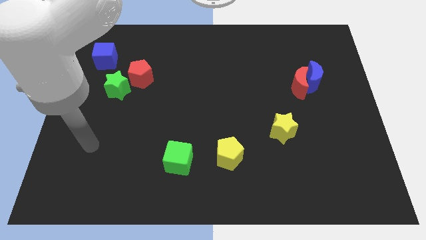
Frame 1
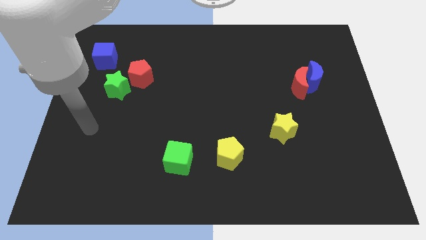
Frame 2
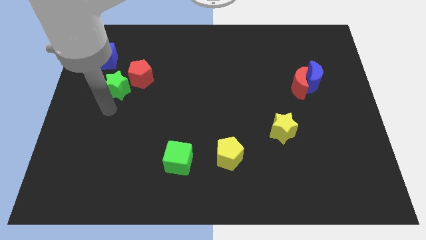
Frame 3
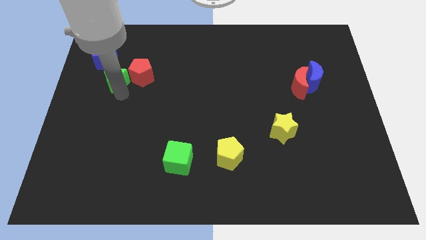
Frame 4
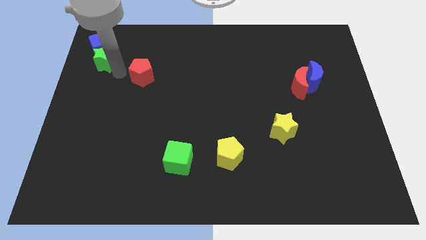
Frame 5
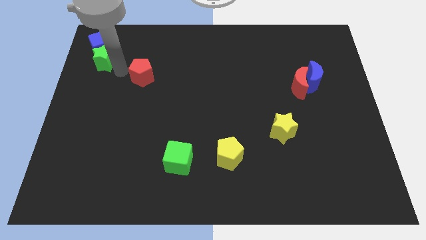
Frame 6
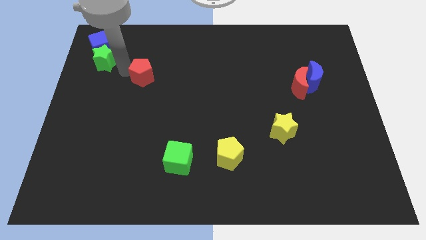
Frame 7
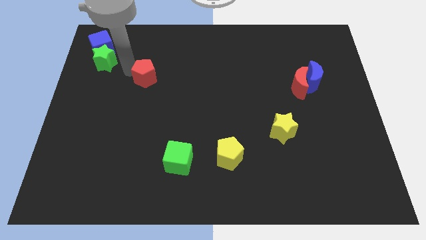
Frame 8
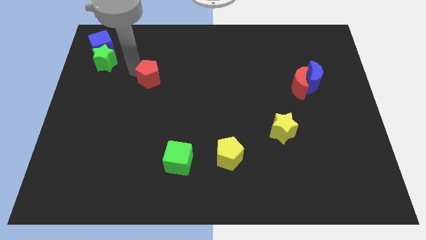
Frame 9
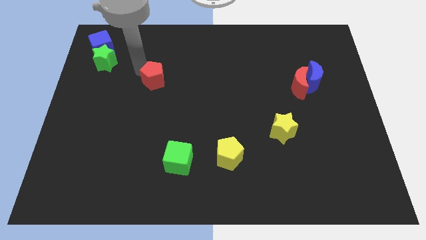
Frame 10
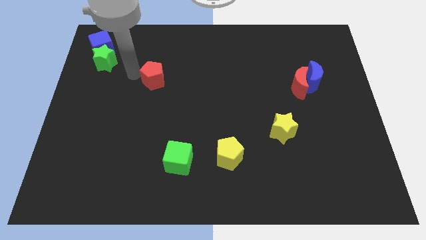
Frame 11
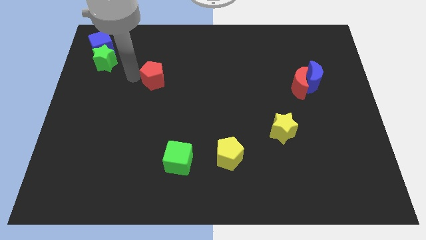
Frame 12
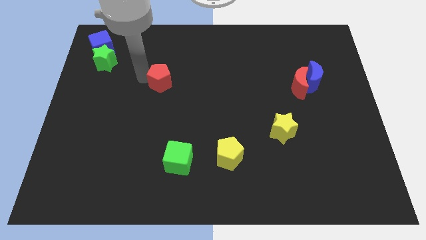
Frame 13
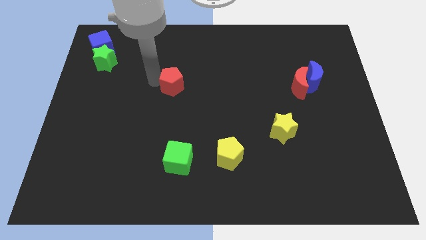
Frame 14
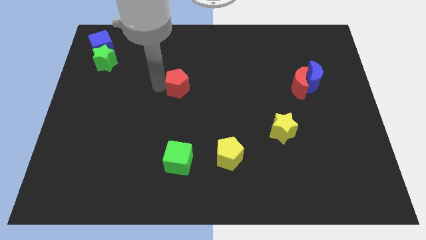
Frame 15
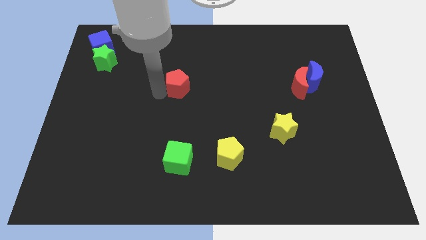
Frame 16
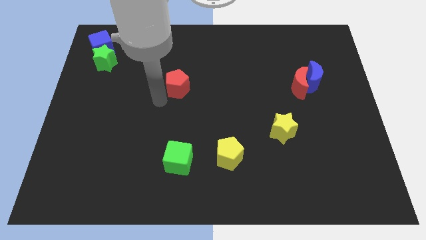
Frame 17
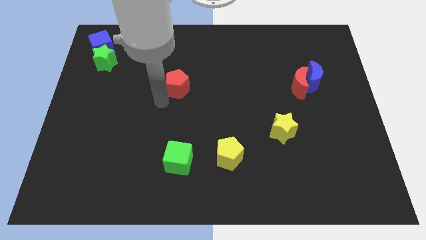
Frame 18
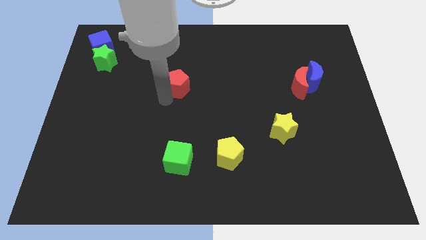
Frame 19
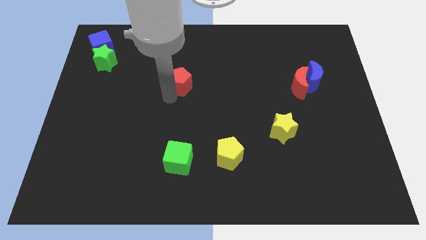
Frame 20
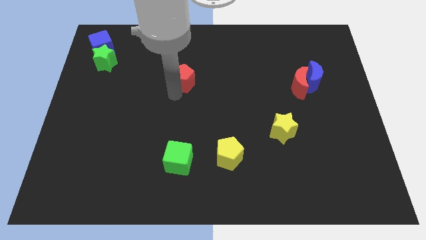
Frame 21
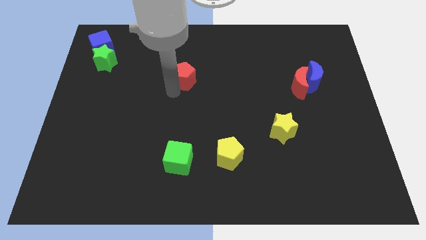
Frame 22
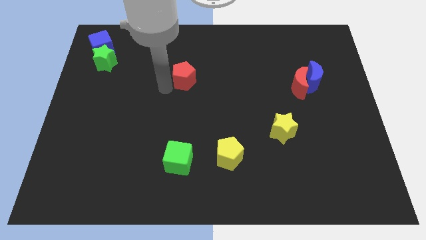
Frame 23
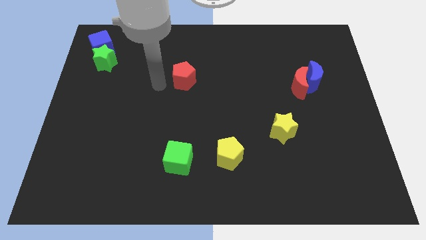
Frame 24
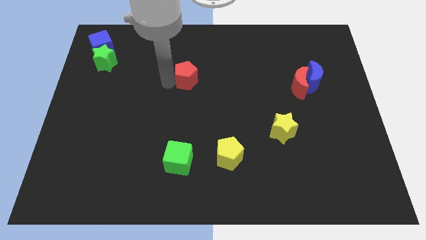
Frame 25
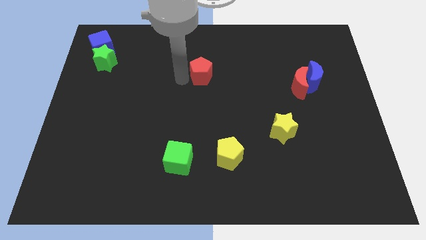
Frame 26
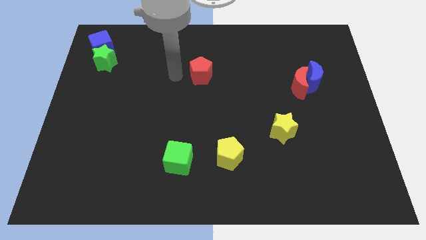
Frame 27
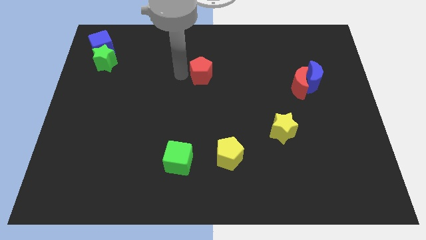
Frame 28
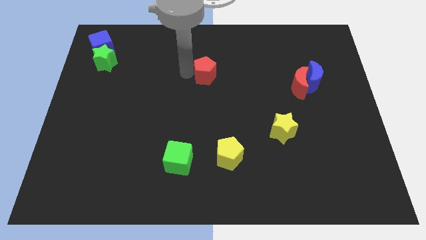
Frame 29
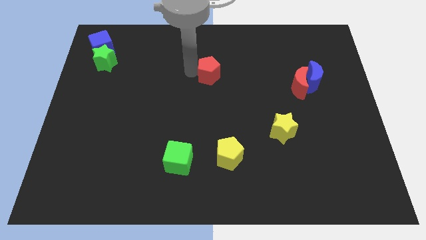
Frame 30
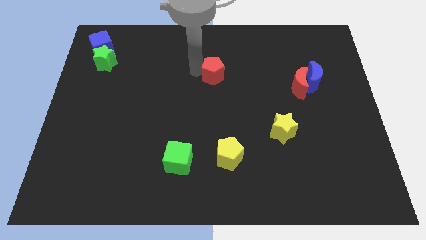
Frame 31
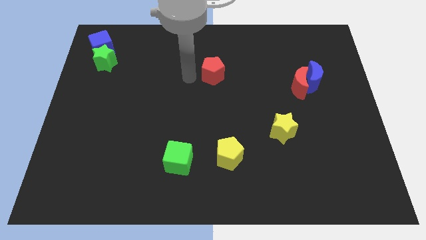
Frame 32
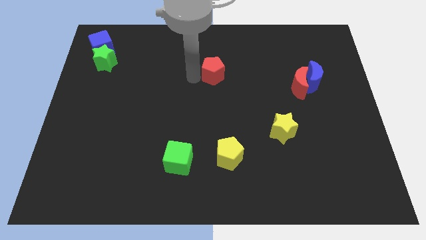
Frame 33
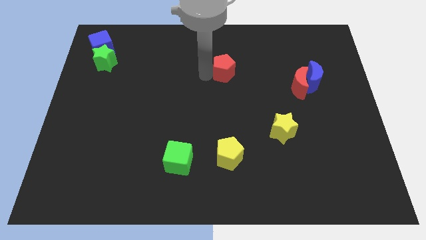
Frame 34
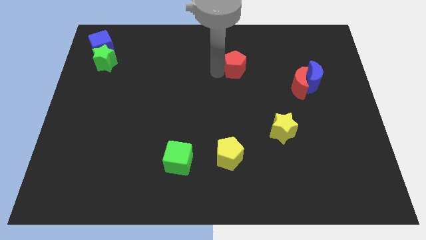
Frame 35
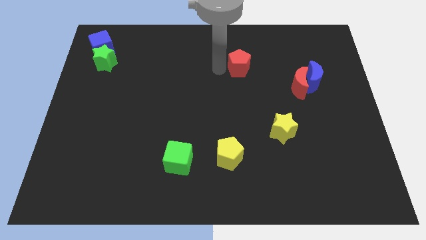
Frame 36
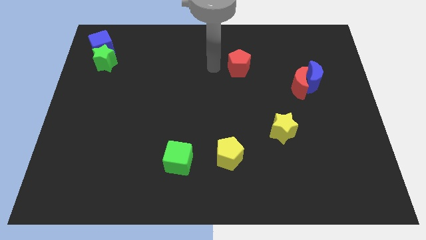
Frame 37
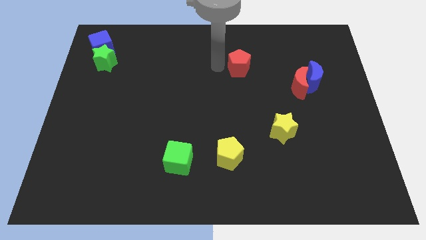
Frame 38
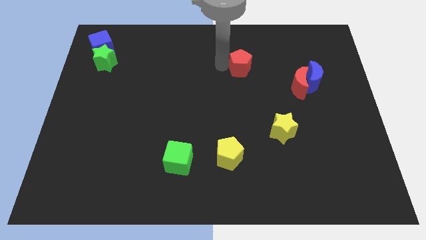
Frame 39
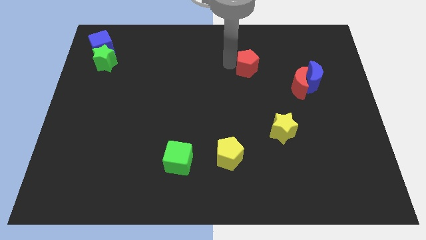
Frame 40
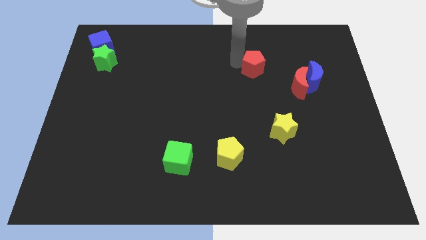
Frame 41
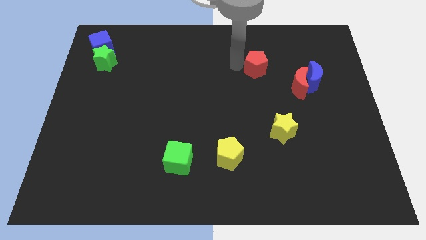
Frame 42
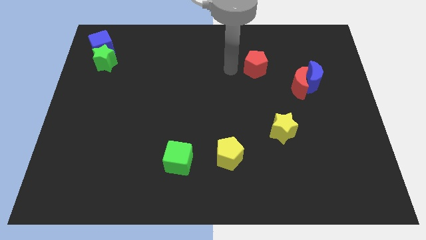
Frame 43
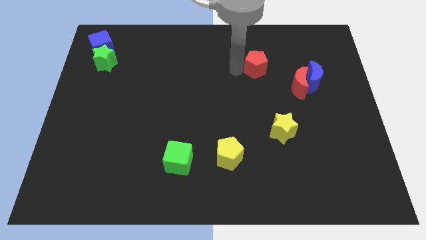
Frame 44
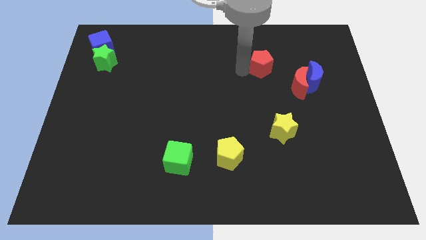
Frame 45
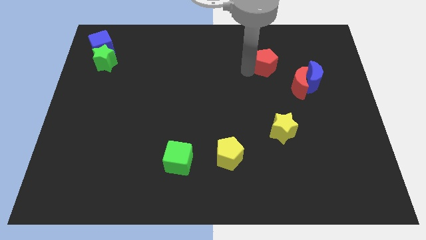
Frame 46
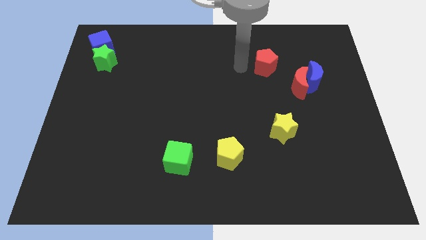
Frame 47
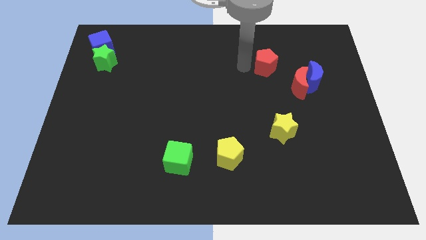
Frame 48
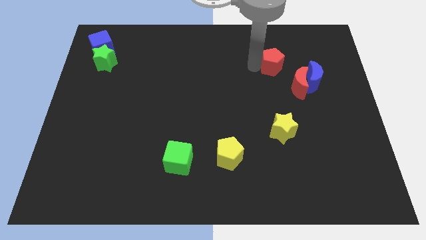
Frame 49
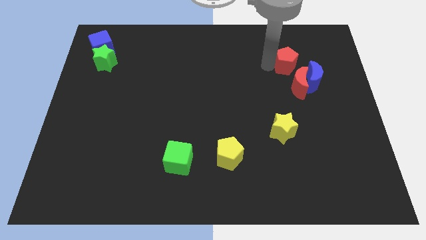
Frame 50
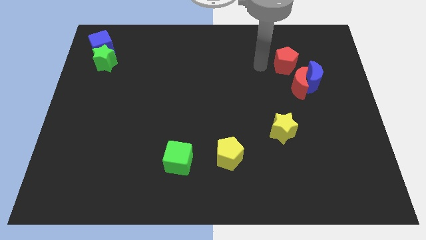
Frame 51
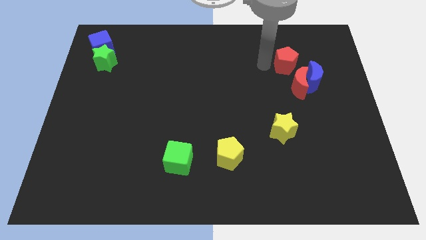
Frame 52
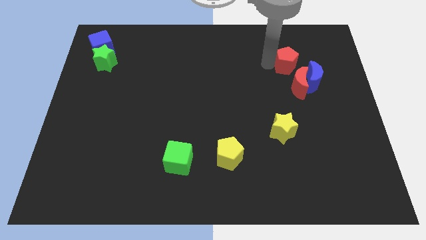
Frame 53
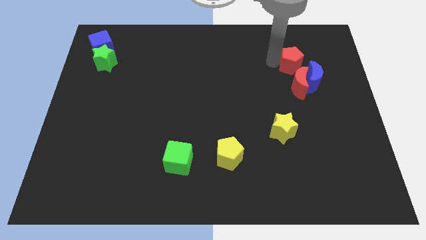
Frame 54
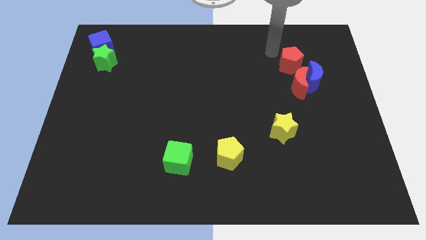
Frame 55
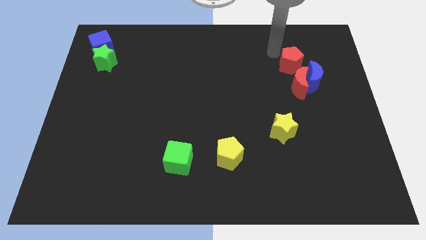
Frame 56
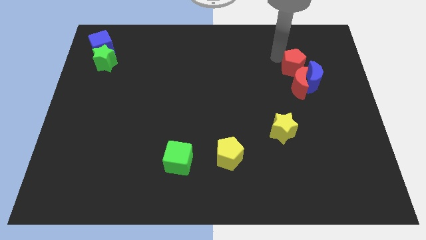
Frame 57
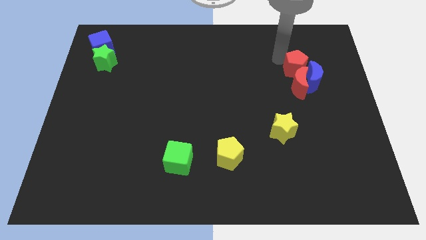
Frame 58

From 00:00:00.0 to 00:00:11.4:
put the red pentagon next to the blue moon

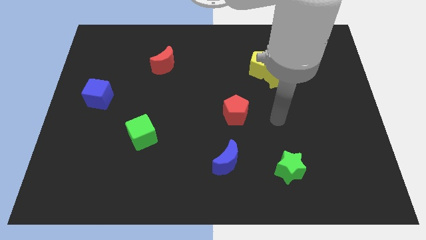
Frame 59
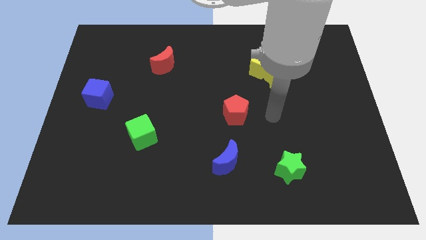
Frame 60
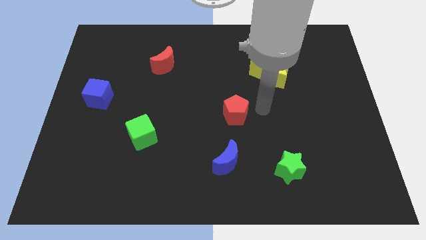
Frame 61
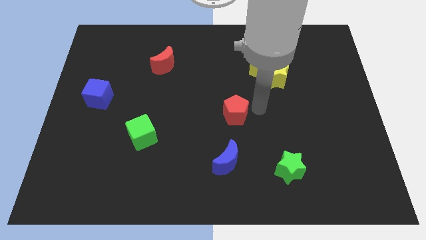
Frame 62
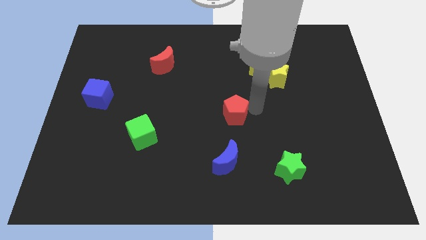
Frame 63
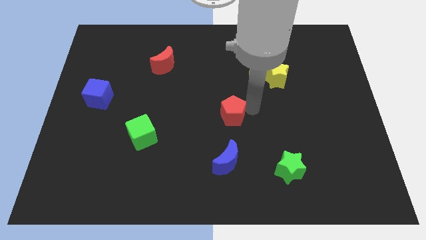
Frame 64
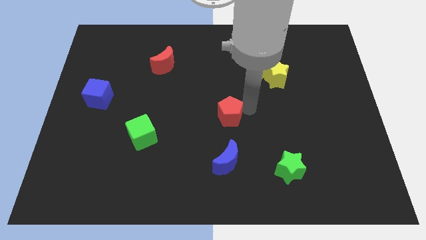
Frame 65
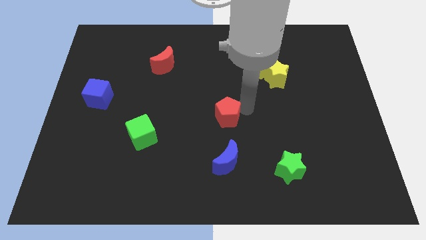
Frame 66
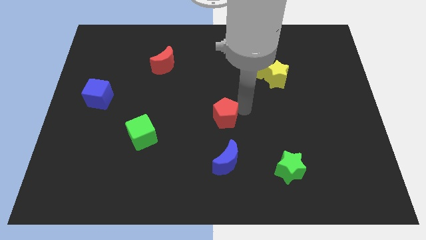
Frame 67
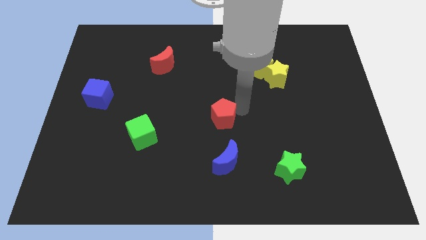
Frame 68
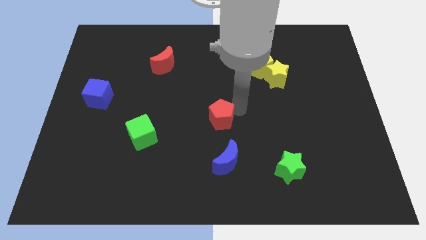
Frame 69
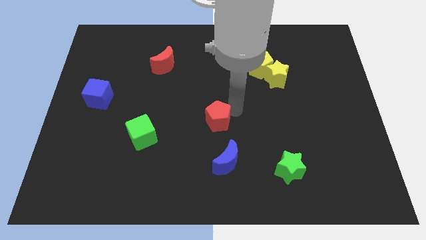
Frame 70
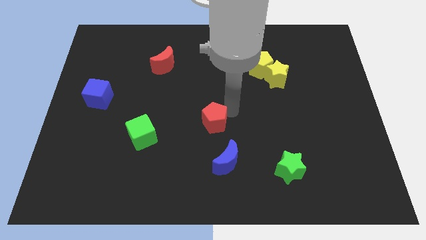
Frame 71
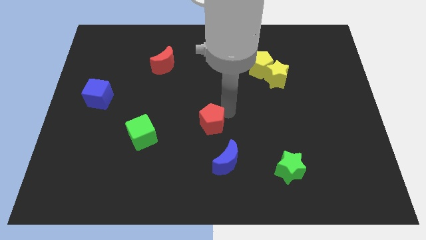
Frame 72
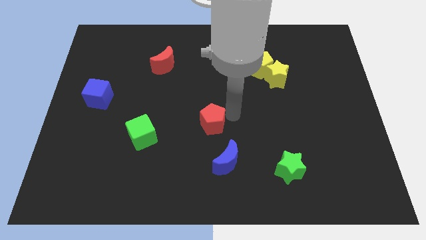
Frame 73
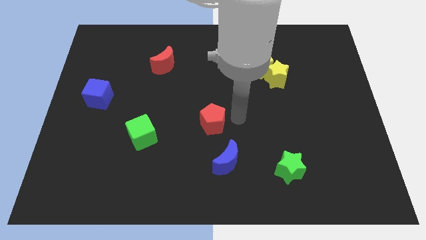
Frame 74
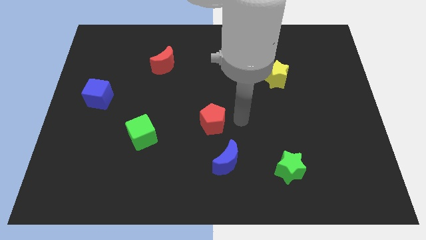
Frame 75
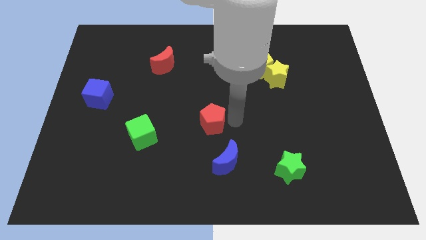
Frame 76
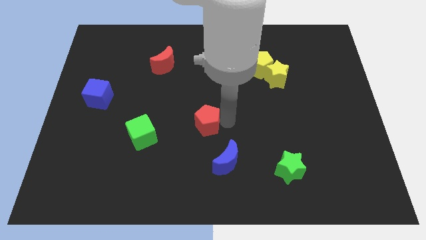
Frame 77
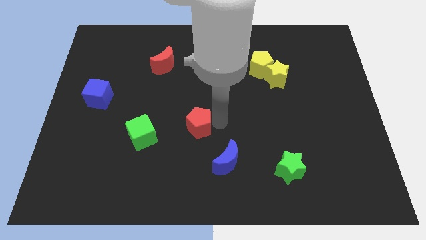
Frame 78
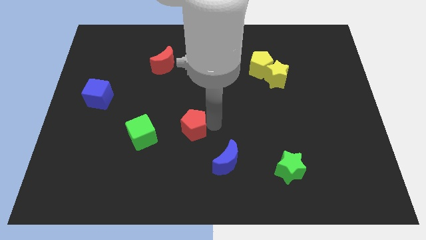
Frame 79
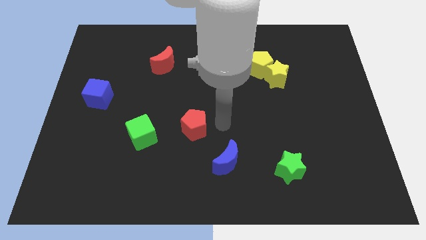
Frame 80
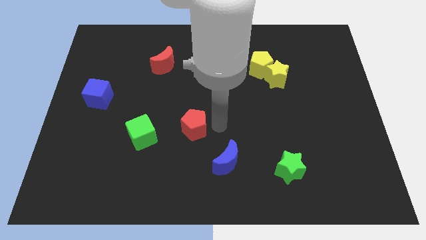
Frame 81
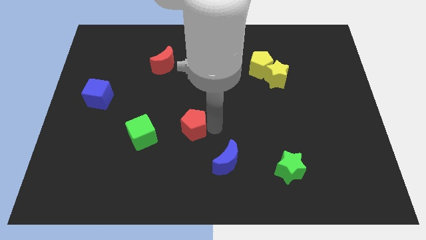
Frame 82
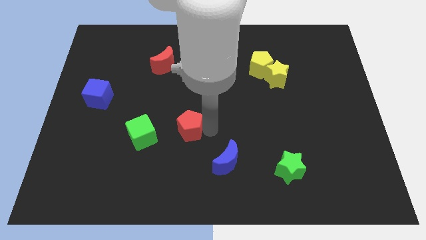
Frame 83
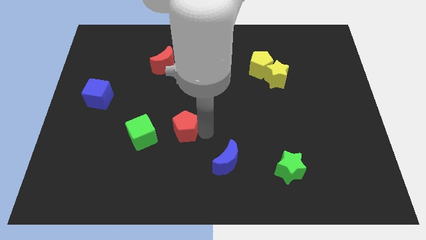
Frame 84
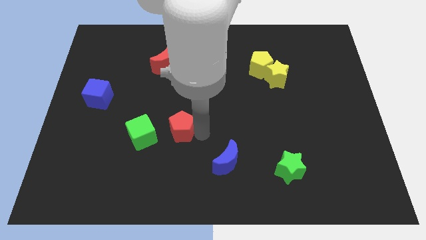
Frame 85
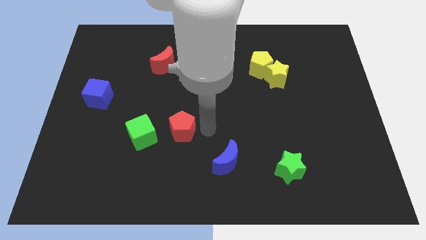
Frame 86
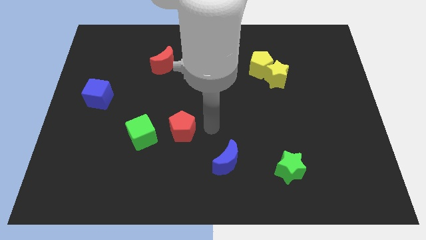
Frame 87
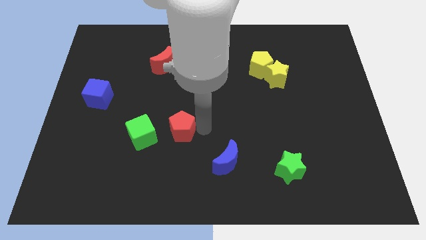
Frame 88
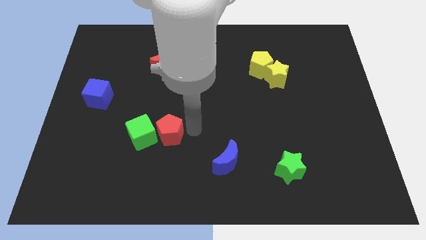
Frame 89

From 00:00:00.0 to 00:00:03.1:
put the red pentagon close to the green cube
